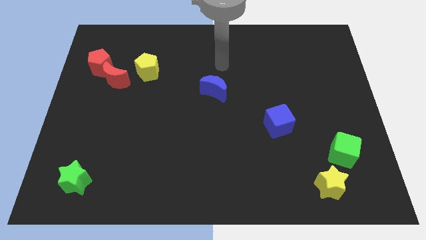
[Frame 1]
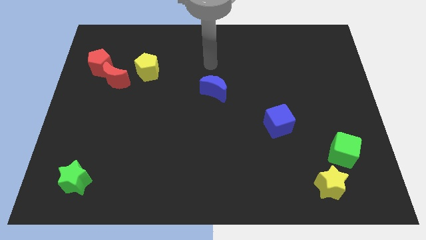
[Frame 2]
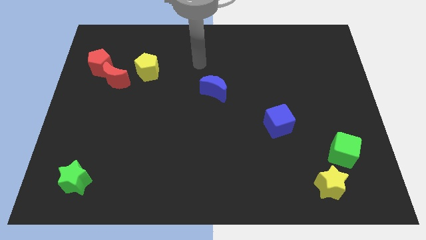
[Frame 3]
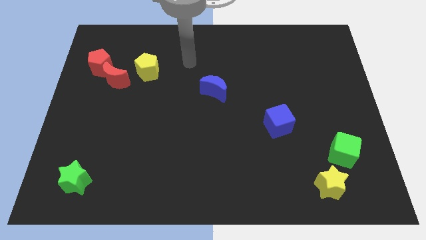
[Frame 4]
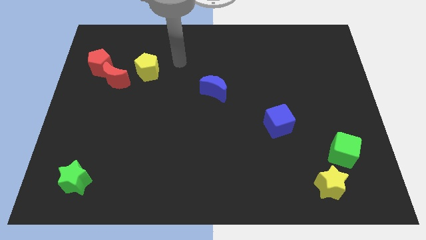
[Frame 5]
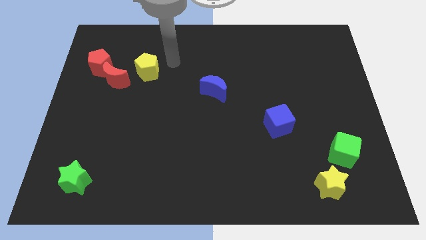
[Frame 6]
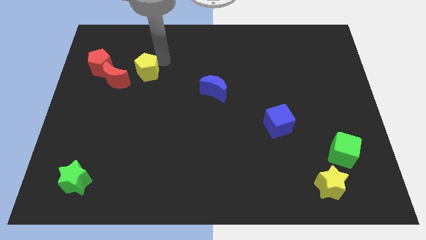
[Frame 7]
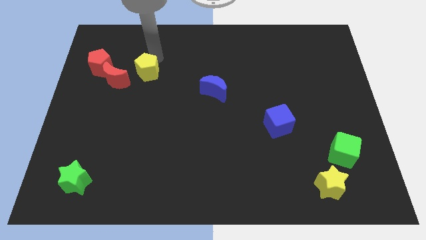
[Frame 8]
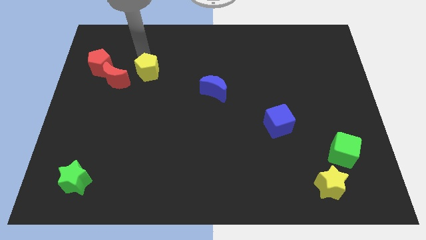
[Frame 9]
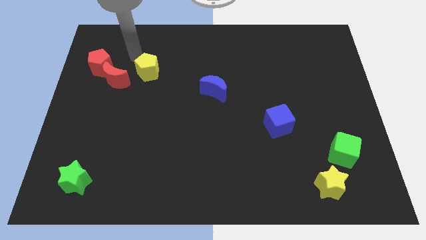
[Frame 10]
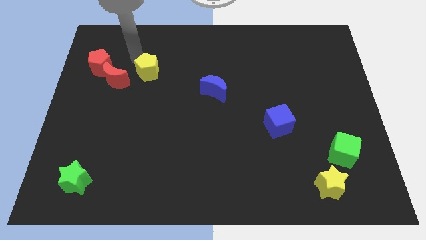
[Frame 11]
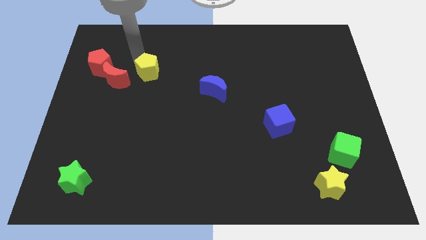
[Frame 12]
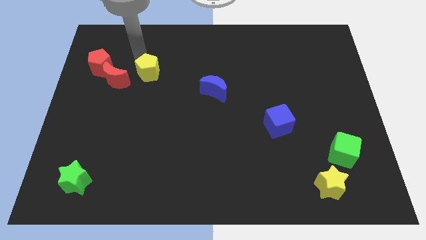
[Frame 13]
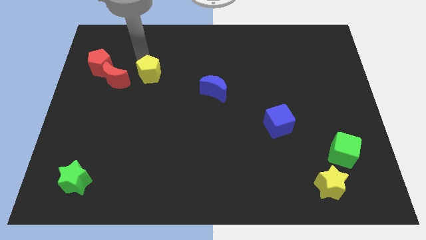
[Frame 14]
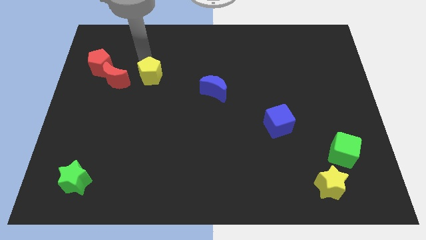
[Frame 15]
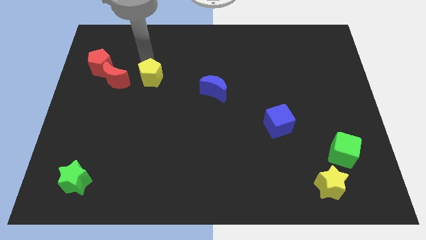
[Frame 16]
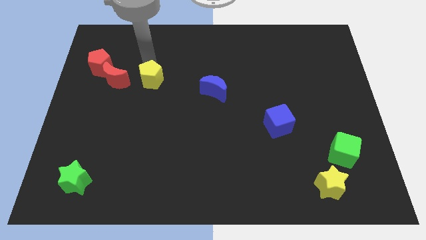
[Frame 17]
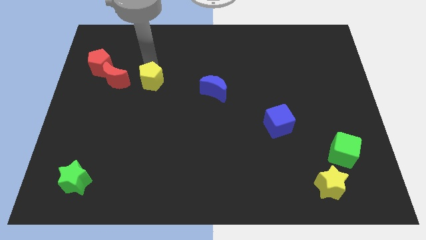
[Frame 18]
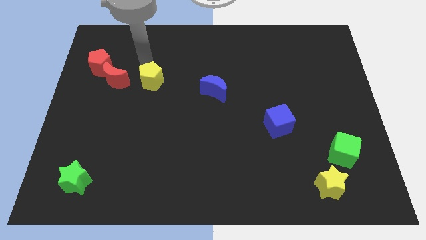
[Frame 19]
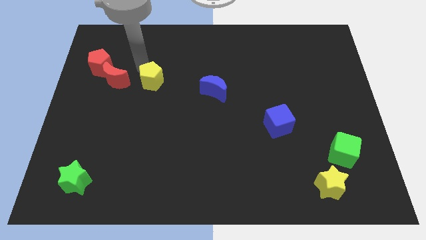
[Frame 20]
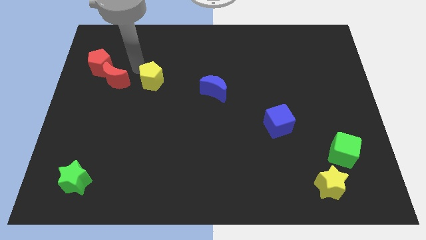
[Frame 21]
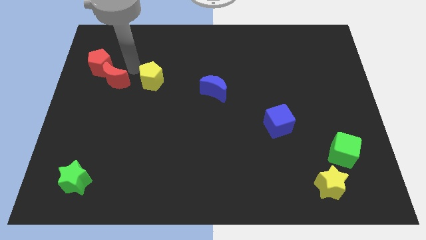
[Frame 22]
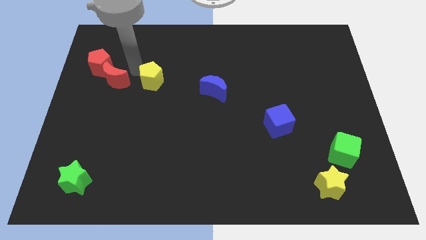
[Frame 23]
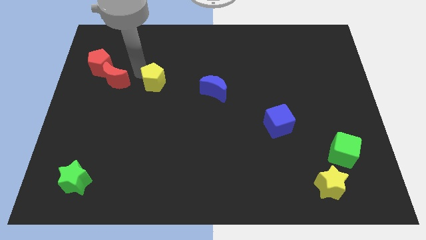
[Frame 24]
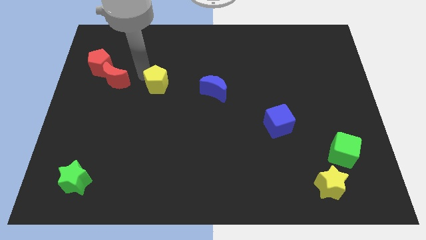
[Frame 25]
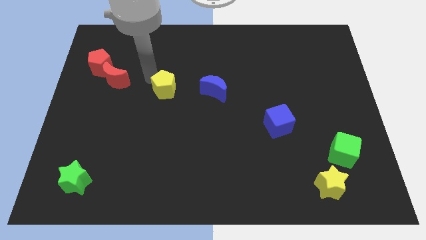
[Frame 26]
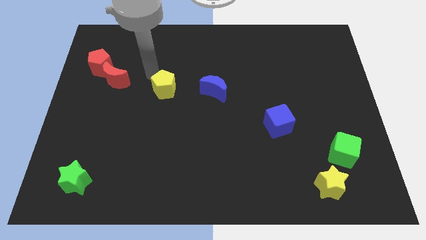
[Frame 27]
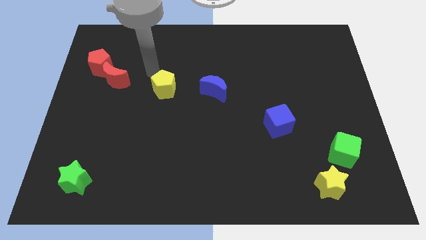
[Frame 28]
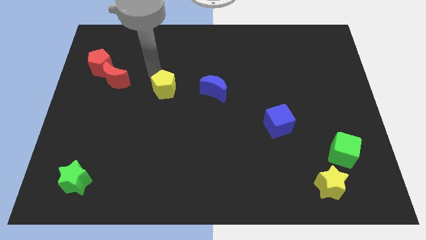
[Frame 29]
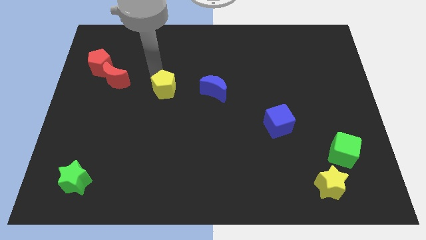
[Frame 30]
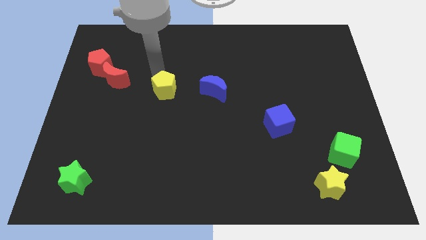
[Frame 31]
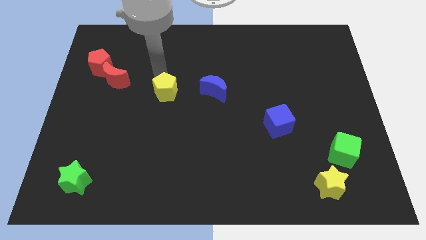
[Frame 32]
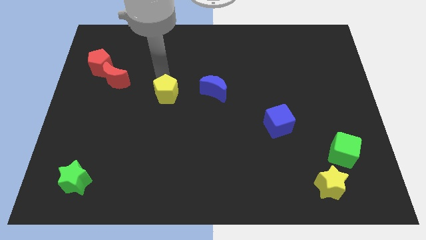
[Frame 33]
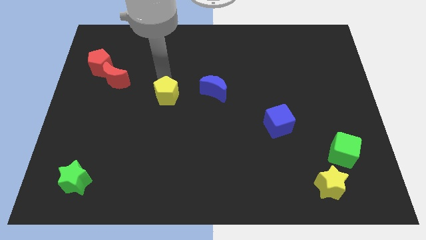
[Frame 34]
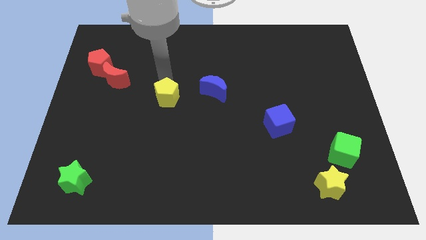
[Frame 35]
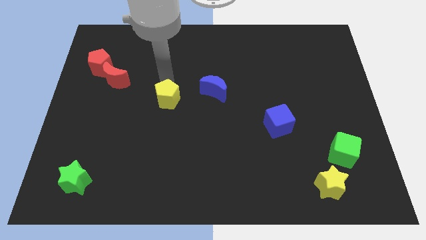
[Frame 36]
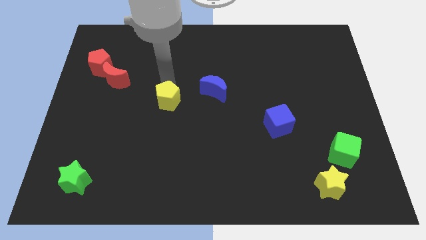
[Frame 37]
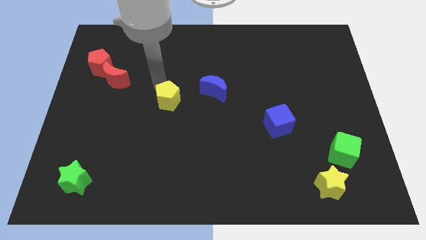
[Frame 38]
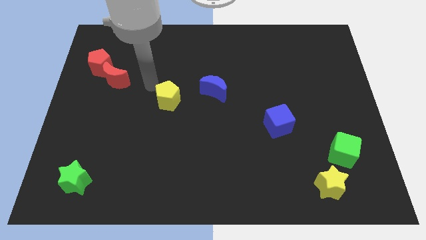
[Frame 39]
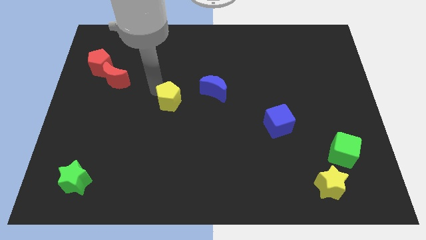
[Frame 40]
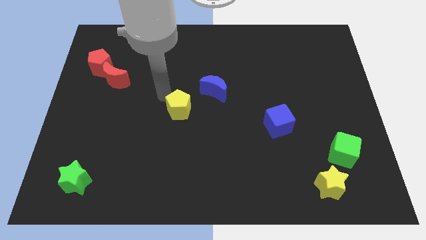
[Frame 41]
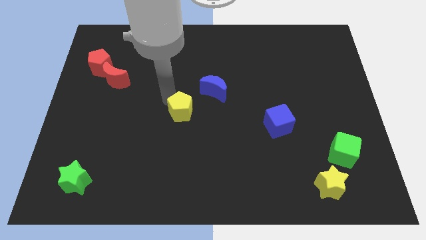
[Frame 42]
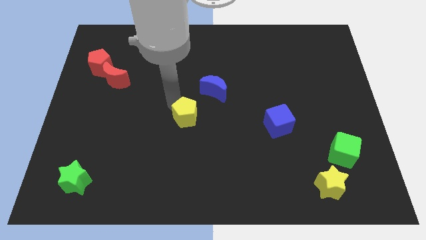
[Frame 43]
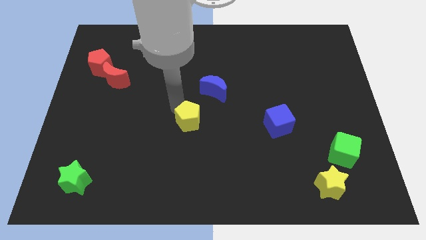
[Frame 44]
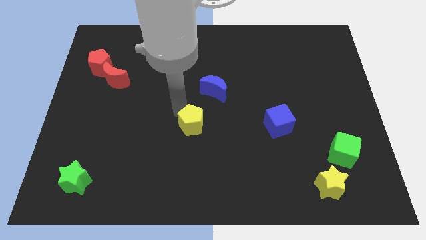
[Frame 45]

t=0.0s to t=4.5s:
slide the yellow pentagon down and to the right diagonally

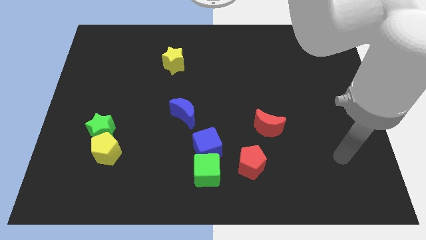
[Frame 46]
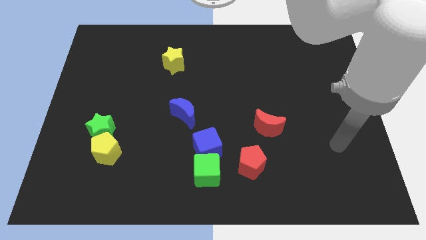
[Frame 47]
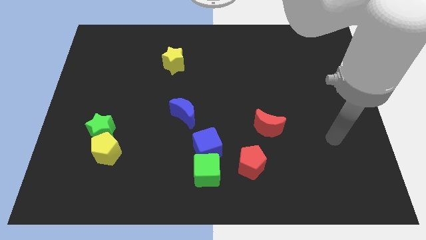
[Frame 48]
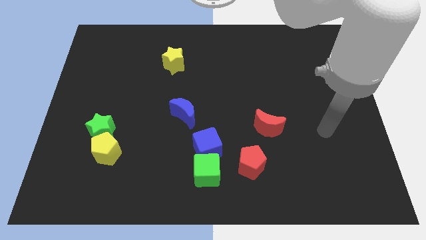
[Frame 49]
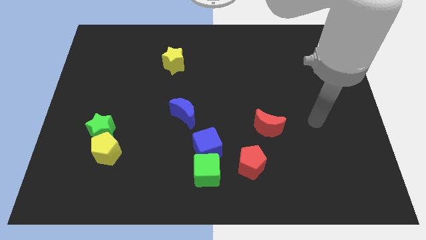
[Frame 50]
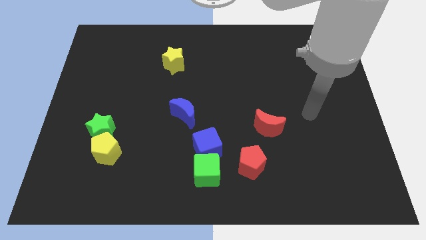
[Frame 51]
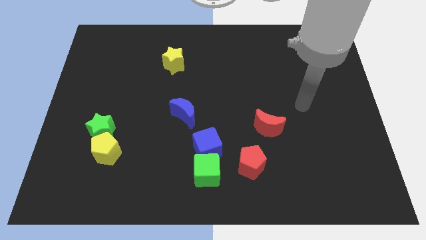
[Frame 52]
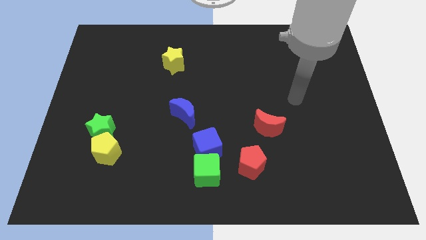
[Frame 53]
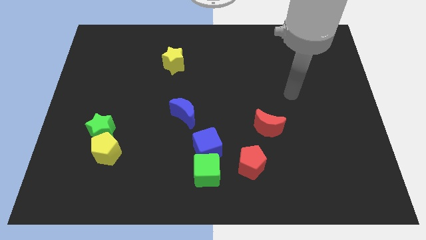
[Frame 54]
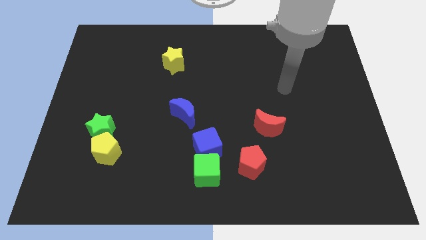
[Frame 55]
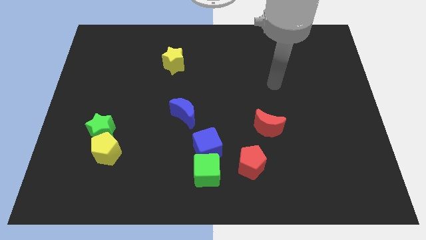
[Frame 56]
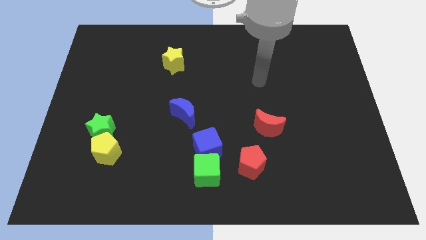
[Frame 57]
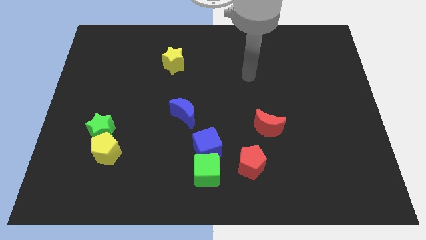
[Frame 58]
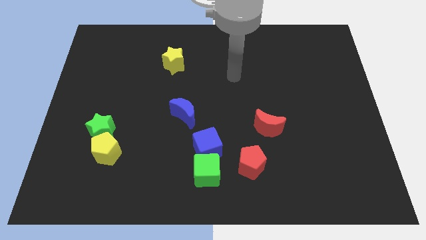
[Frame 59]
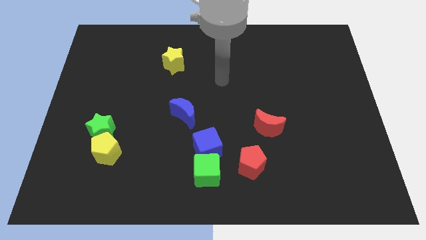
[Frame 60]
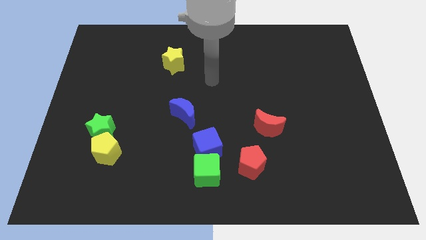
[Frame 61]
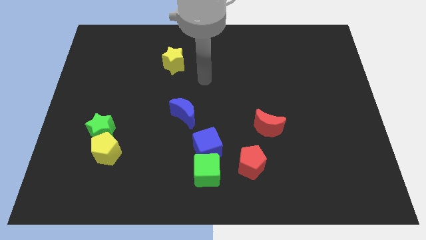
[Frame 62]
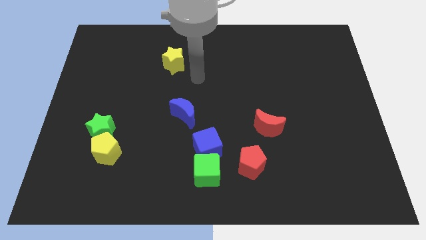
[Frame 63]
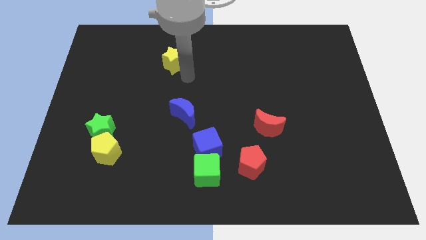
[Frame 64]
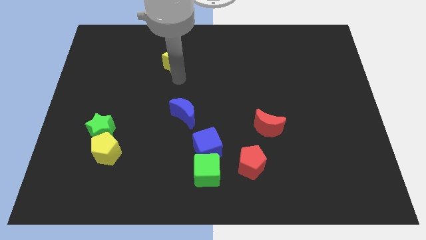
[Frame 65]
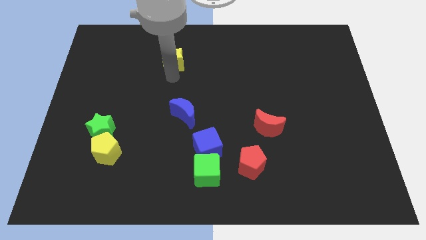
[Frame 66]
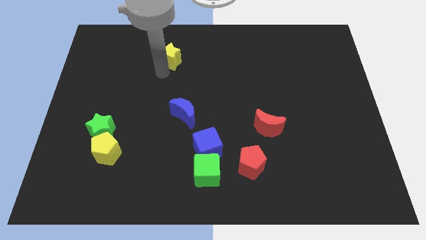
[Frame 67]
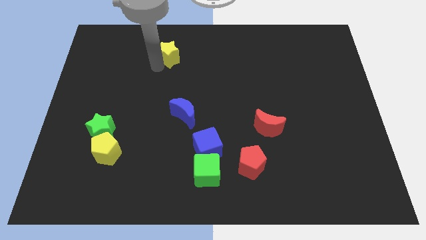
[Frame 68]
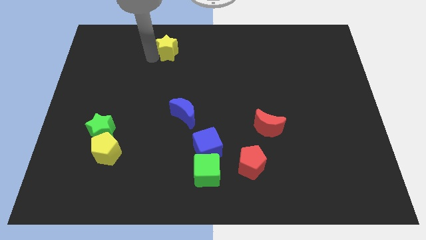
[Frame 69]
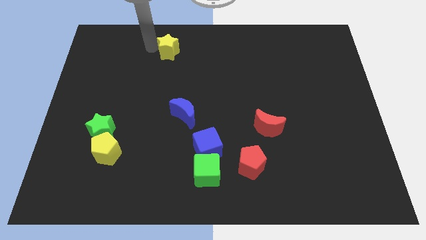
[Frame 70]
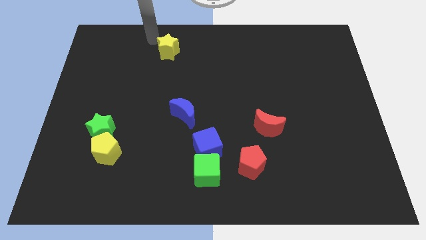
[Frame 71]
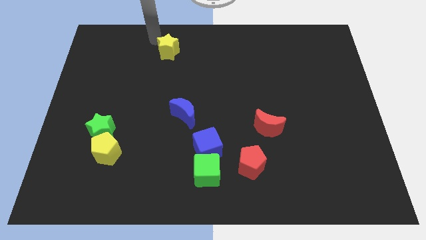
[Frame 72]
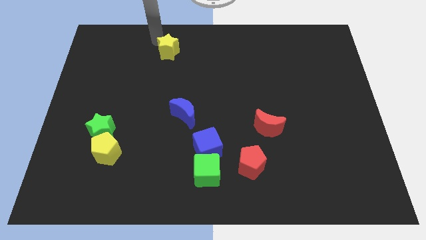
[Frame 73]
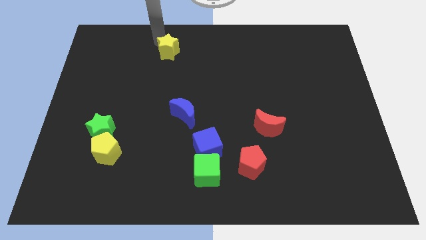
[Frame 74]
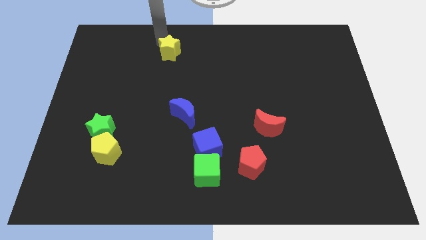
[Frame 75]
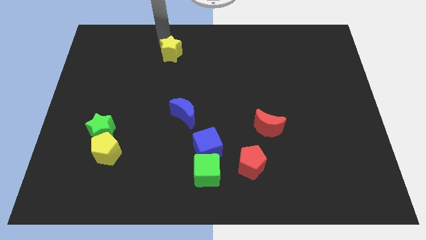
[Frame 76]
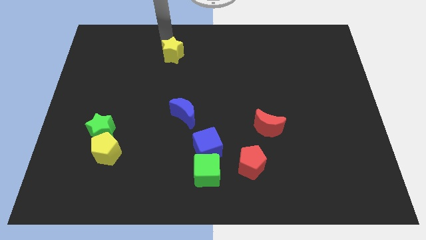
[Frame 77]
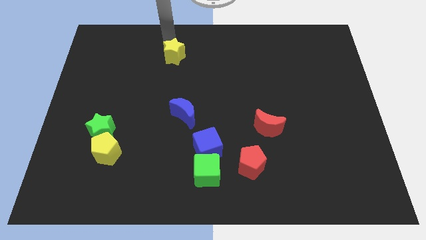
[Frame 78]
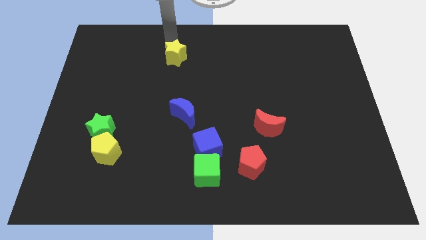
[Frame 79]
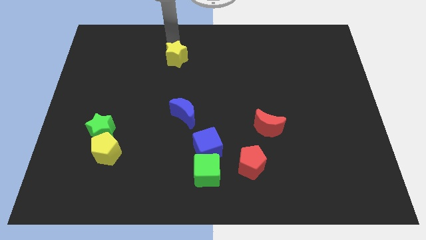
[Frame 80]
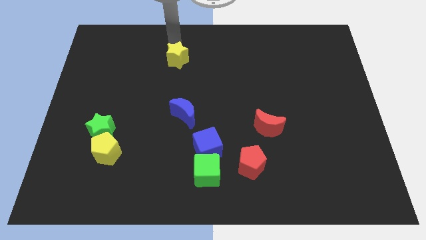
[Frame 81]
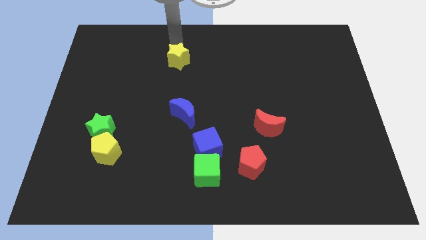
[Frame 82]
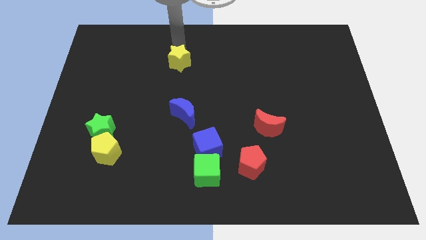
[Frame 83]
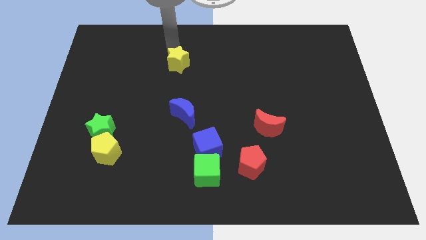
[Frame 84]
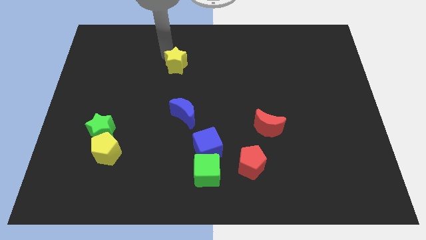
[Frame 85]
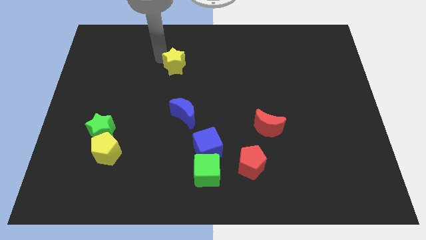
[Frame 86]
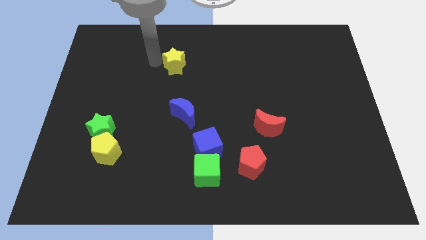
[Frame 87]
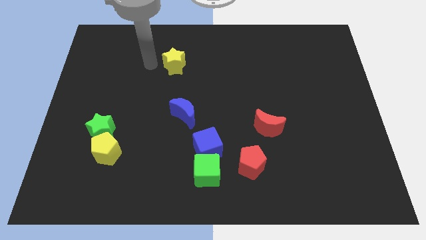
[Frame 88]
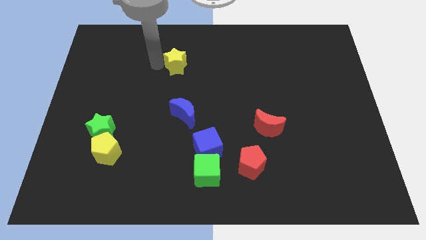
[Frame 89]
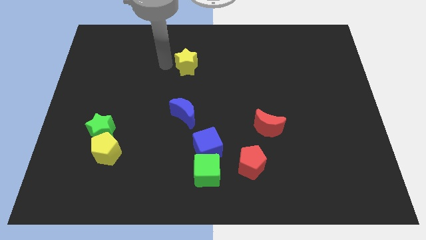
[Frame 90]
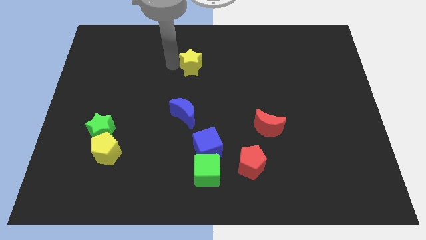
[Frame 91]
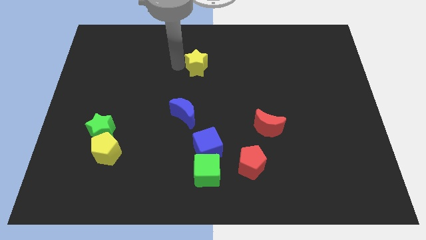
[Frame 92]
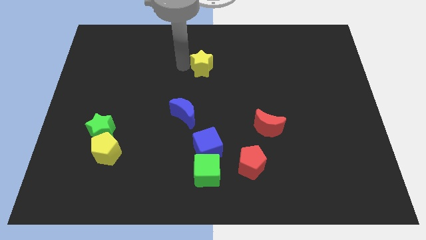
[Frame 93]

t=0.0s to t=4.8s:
slide the yellow star right a little
